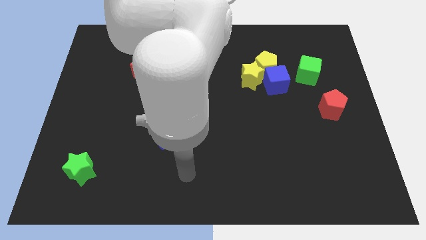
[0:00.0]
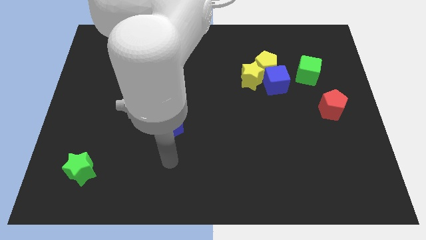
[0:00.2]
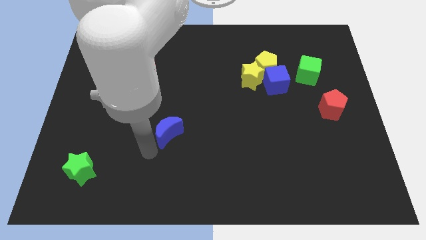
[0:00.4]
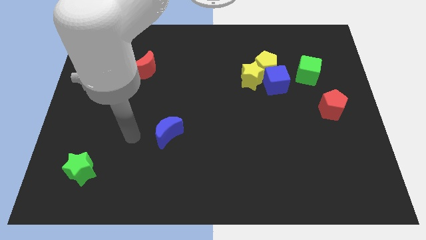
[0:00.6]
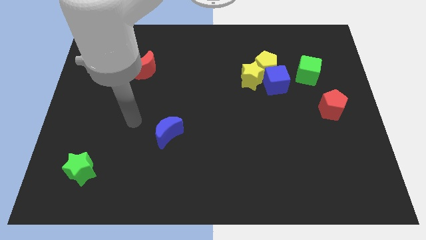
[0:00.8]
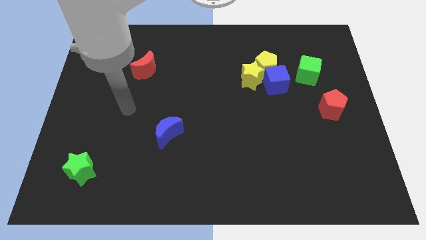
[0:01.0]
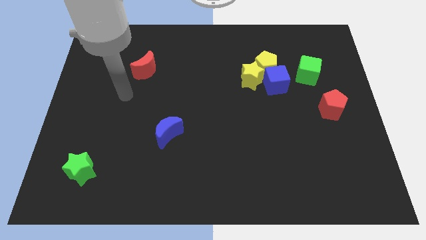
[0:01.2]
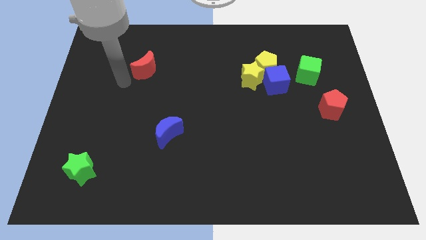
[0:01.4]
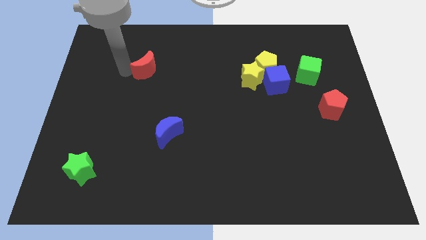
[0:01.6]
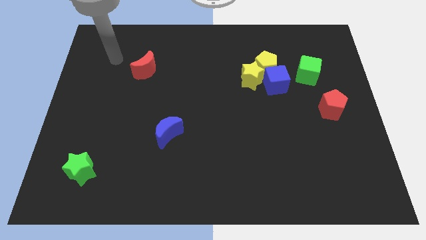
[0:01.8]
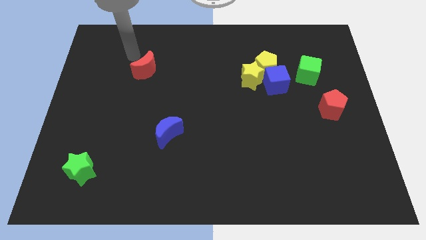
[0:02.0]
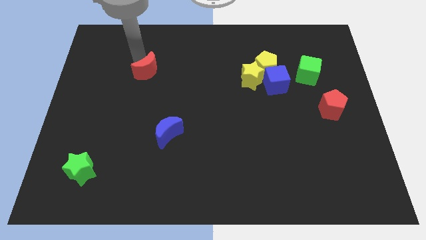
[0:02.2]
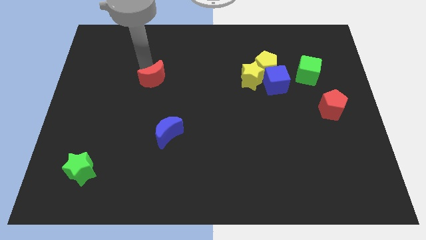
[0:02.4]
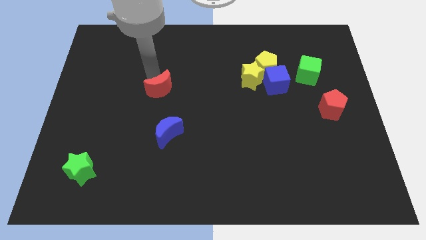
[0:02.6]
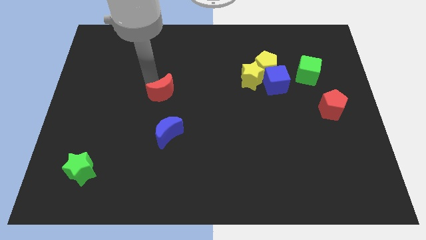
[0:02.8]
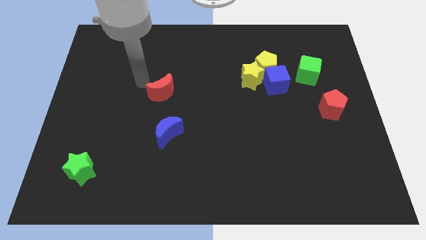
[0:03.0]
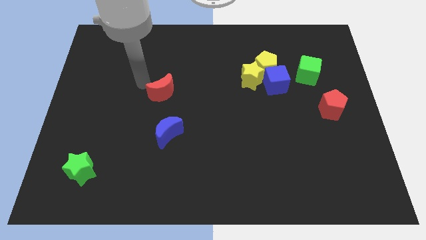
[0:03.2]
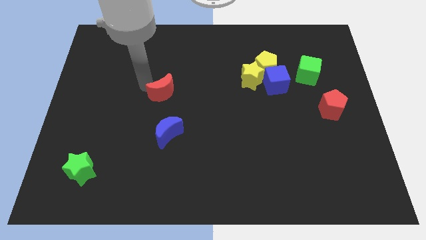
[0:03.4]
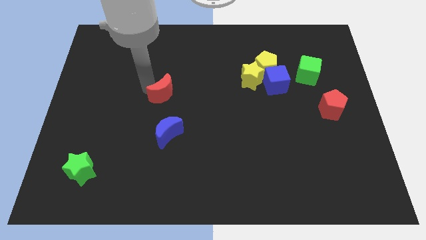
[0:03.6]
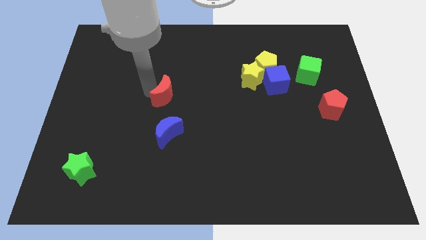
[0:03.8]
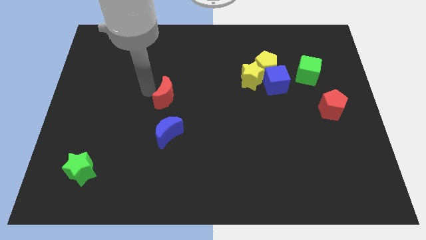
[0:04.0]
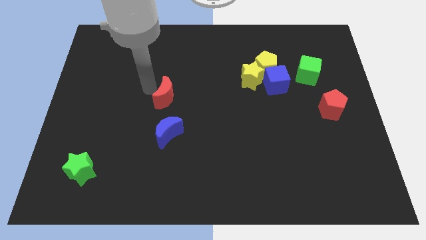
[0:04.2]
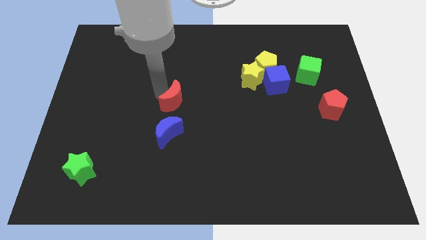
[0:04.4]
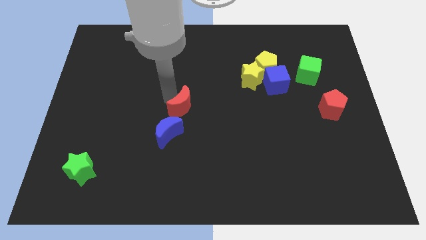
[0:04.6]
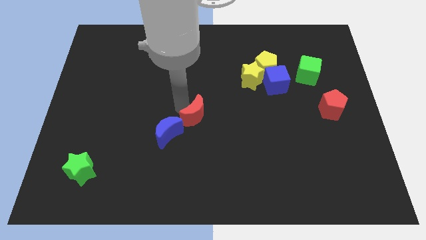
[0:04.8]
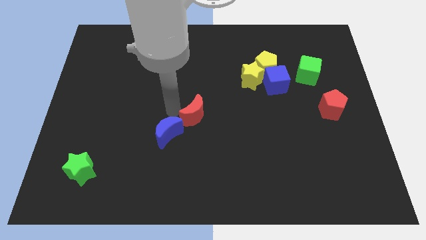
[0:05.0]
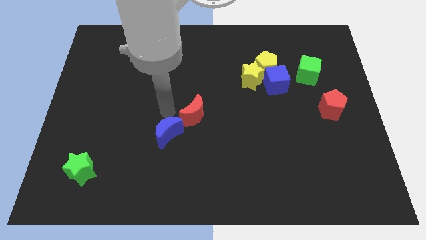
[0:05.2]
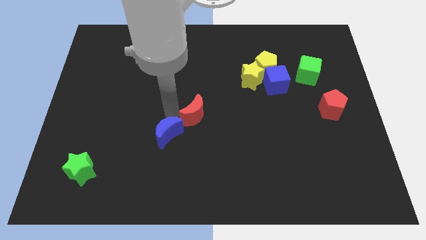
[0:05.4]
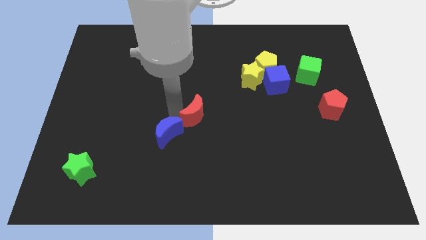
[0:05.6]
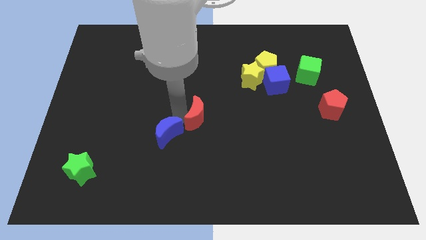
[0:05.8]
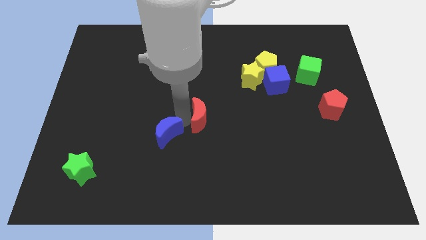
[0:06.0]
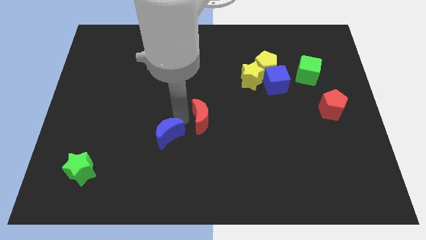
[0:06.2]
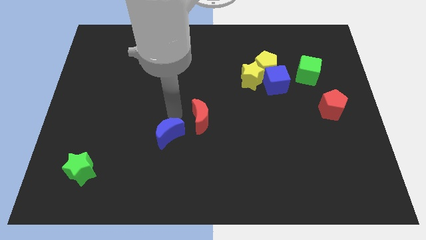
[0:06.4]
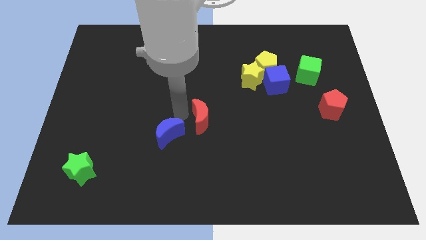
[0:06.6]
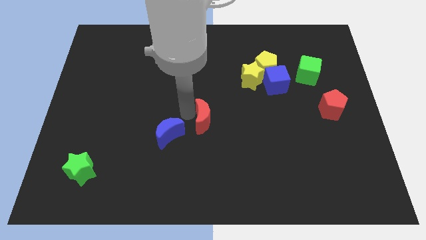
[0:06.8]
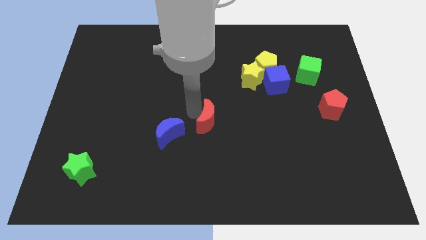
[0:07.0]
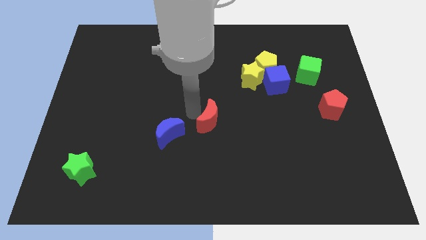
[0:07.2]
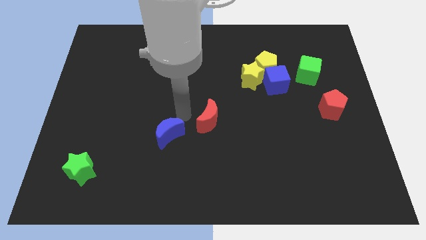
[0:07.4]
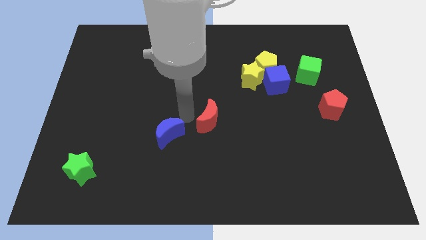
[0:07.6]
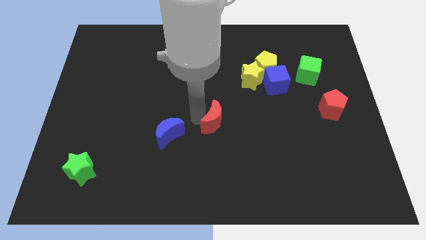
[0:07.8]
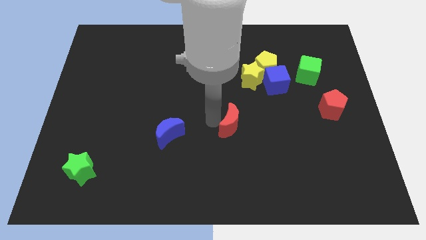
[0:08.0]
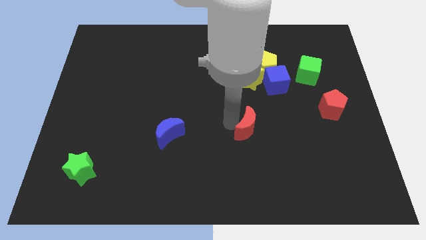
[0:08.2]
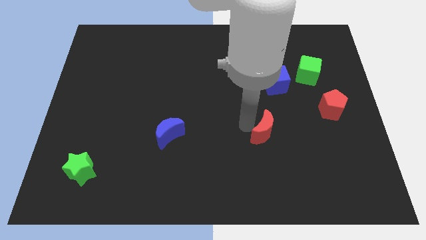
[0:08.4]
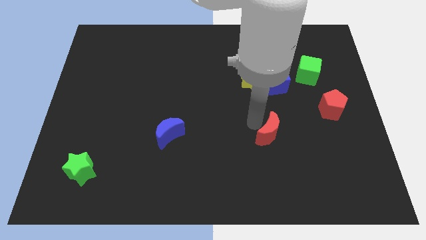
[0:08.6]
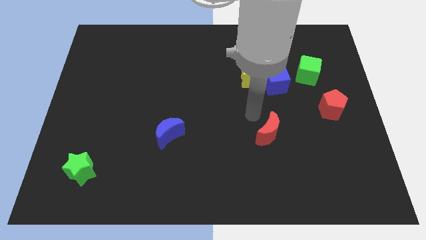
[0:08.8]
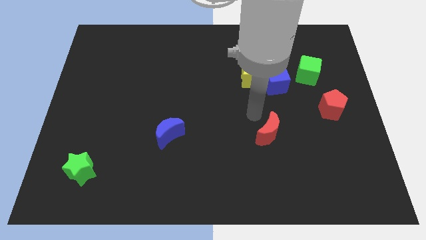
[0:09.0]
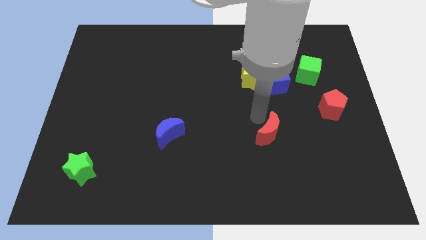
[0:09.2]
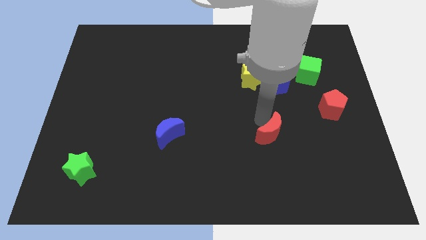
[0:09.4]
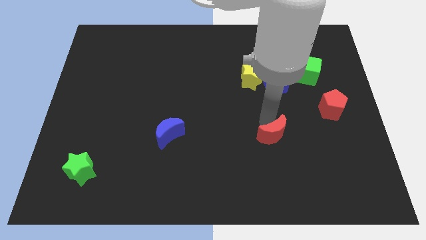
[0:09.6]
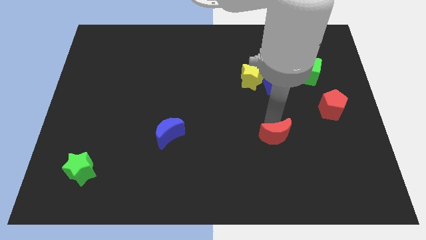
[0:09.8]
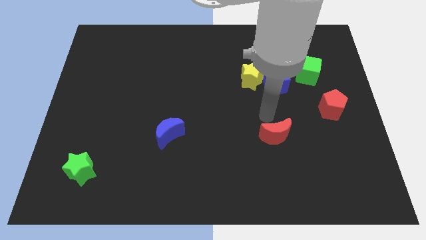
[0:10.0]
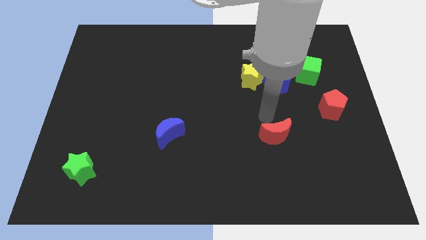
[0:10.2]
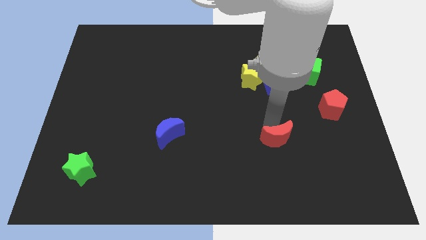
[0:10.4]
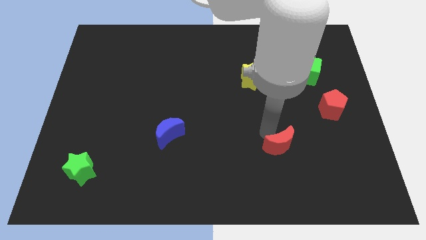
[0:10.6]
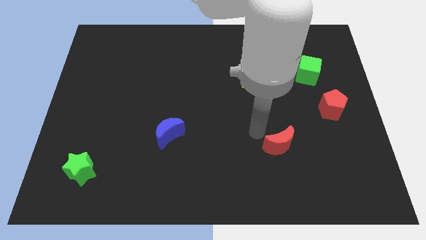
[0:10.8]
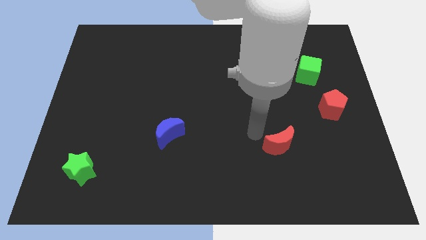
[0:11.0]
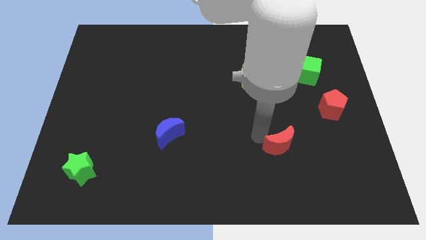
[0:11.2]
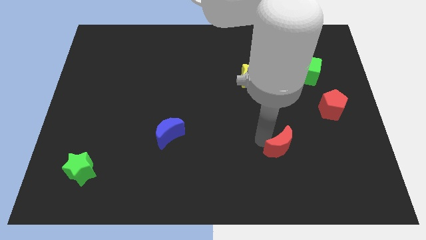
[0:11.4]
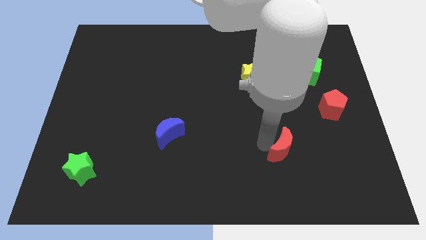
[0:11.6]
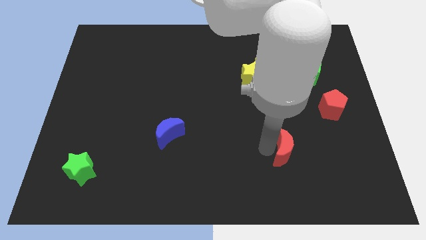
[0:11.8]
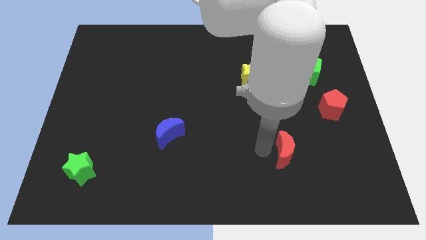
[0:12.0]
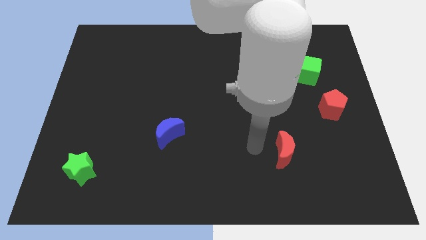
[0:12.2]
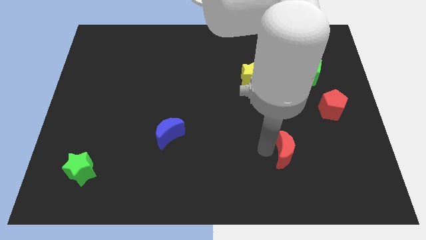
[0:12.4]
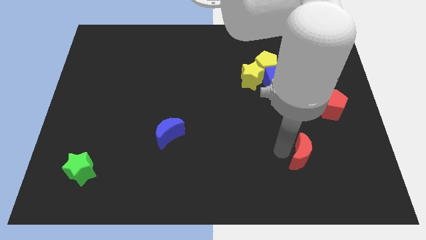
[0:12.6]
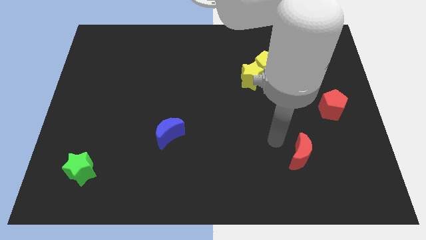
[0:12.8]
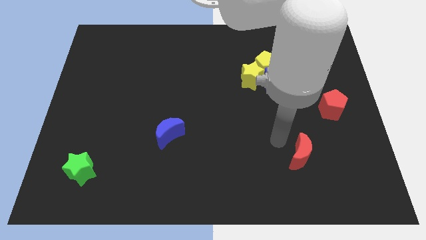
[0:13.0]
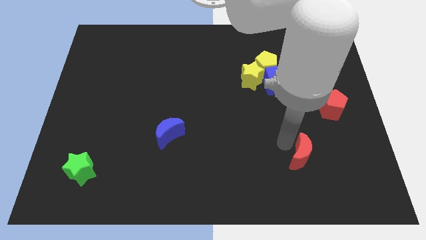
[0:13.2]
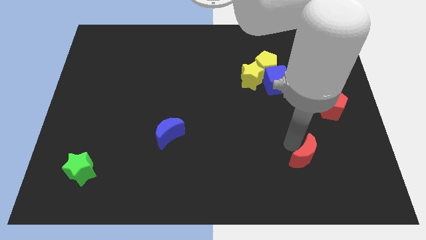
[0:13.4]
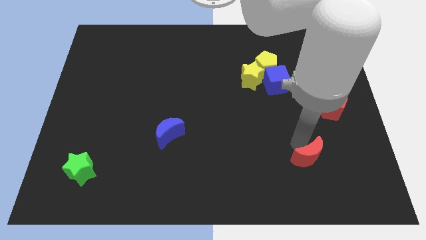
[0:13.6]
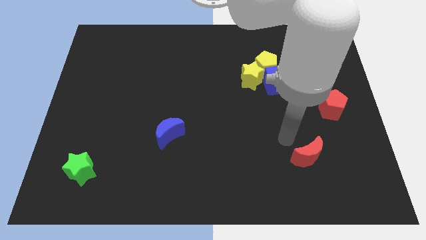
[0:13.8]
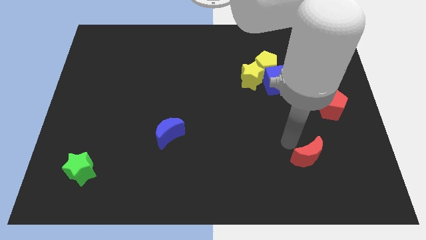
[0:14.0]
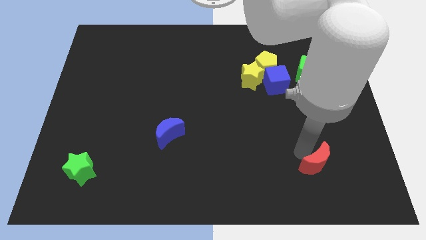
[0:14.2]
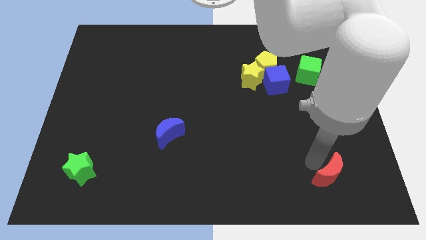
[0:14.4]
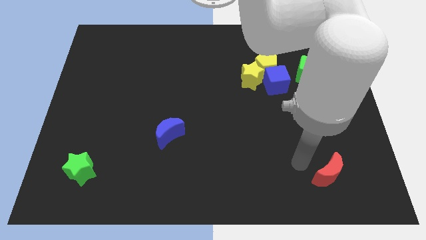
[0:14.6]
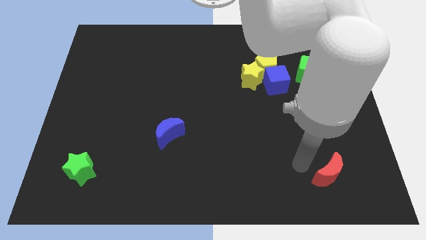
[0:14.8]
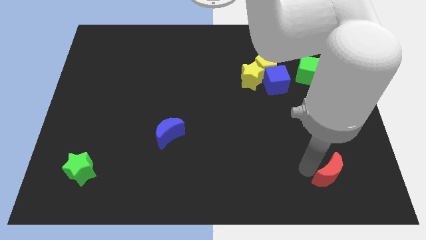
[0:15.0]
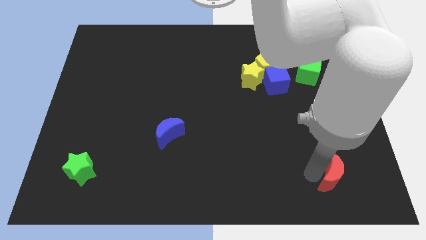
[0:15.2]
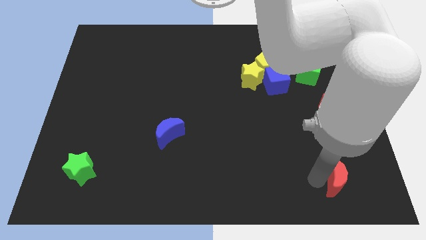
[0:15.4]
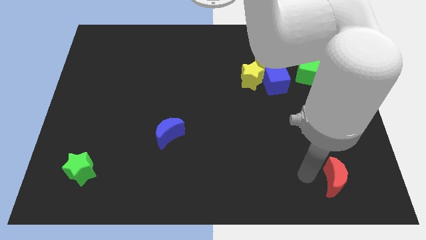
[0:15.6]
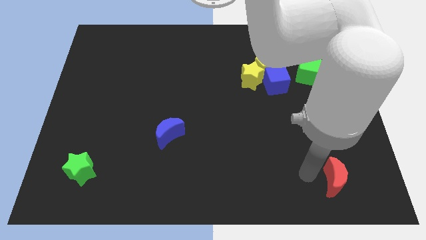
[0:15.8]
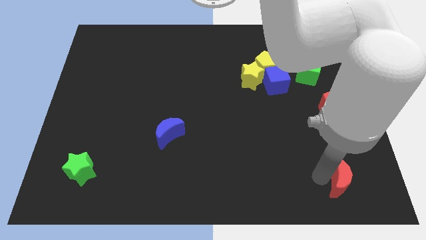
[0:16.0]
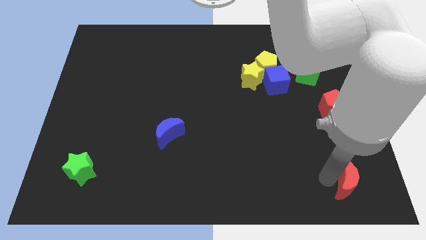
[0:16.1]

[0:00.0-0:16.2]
put the red moon to the bottom right
